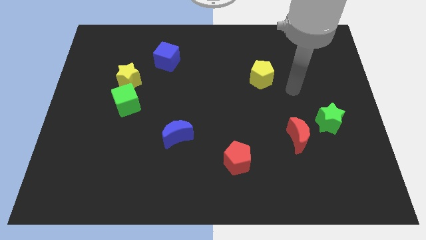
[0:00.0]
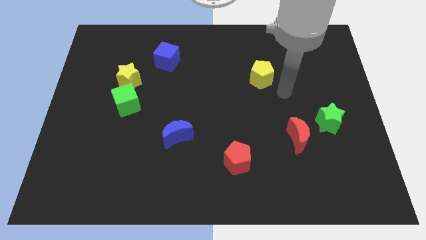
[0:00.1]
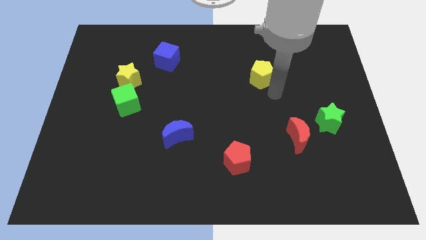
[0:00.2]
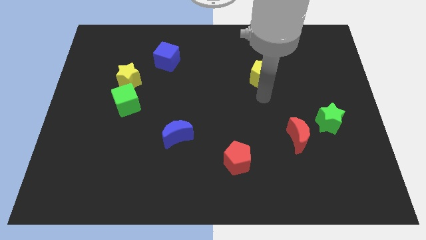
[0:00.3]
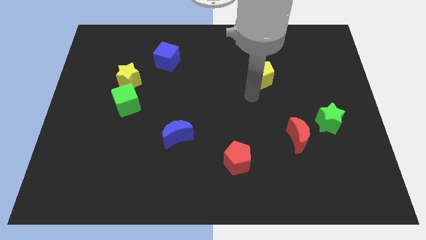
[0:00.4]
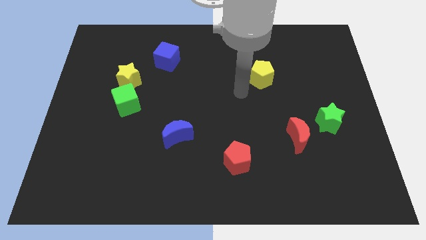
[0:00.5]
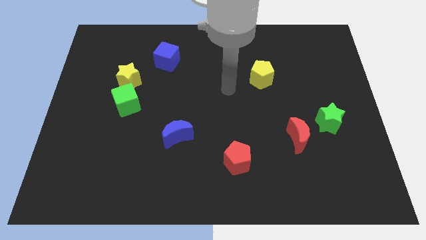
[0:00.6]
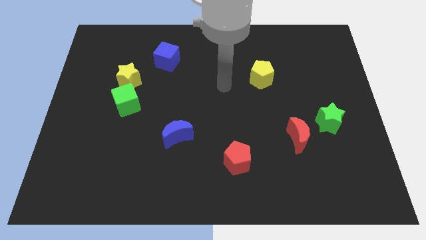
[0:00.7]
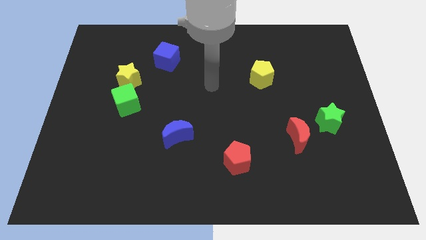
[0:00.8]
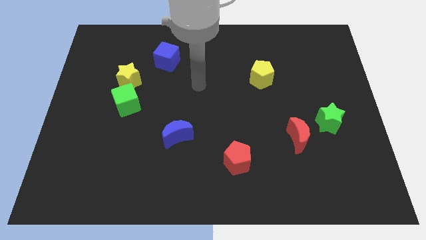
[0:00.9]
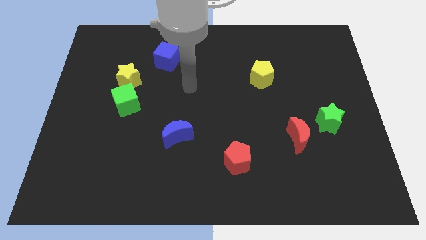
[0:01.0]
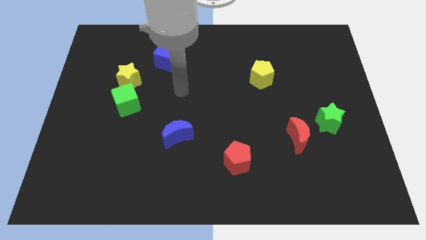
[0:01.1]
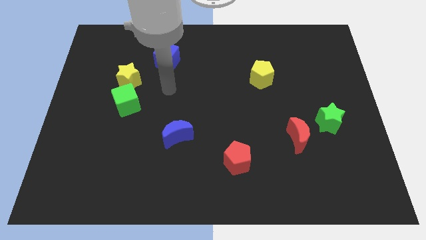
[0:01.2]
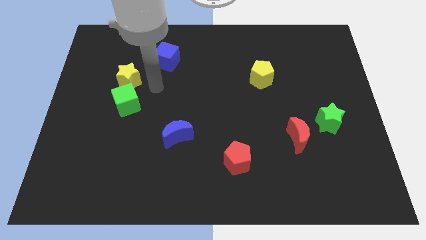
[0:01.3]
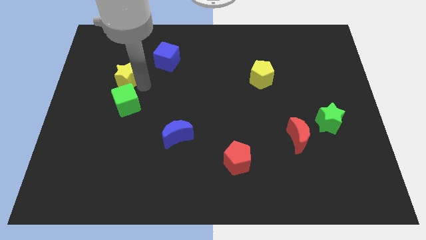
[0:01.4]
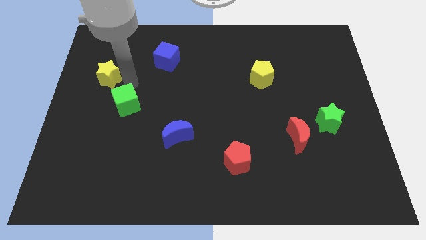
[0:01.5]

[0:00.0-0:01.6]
pull the green cube apart from the yellow star

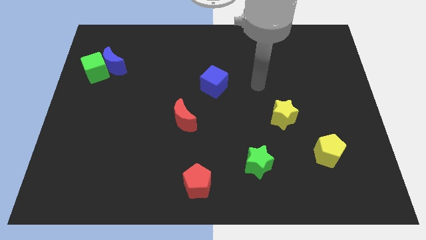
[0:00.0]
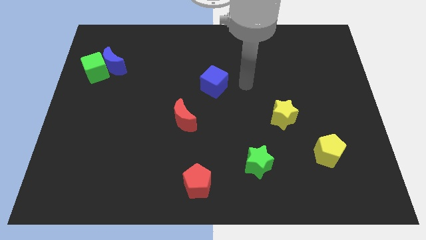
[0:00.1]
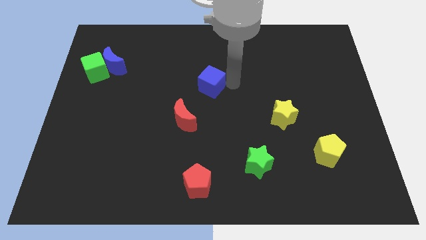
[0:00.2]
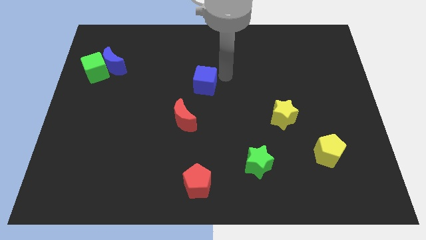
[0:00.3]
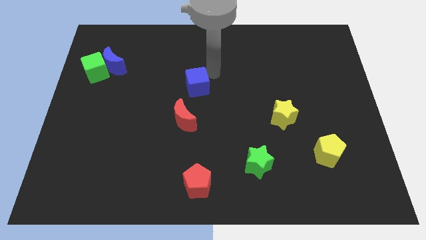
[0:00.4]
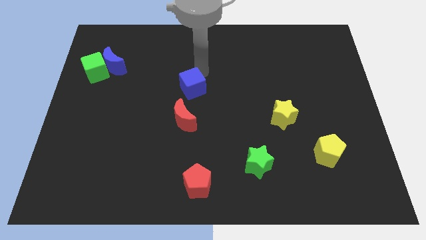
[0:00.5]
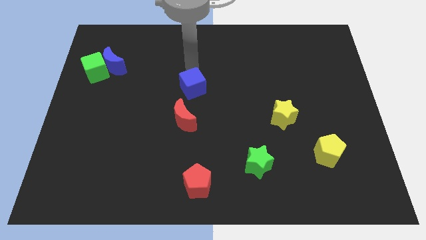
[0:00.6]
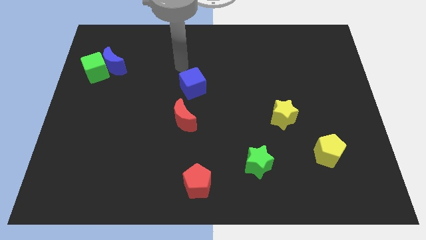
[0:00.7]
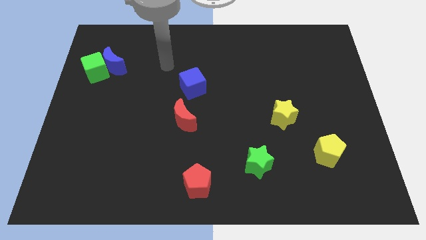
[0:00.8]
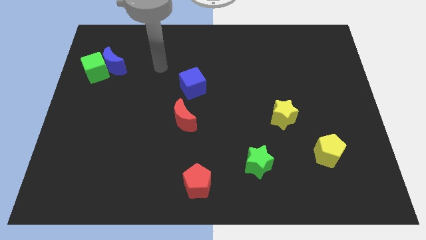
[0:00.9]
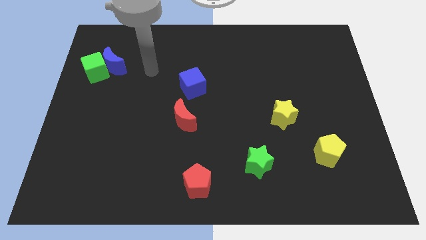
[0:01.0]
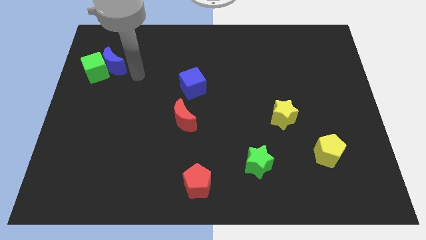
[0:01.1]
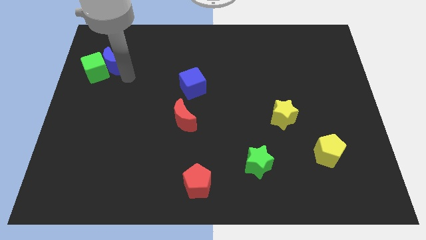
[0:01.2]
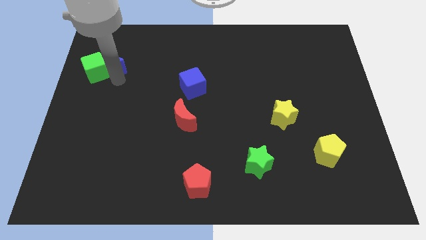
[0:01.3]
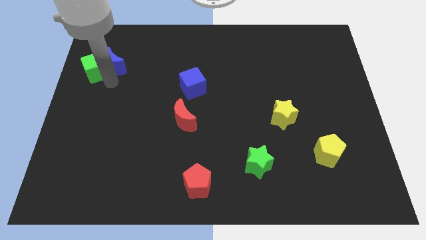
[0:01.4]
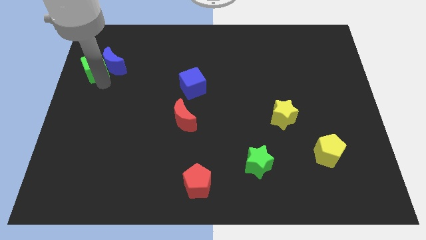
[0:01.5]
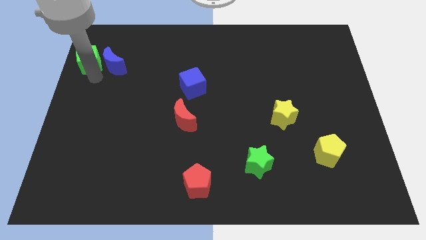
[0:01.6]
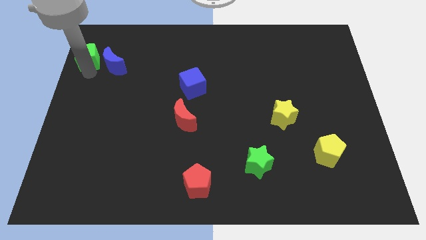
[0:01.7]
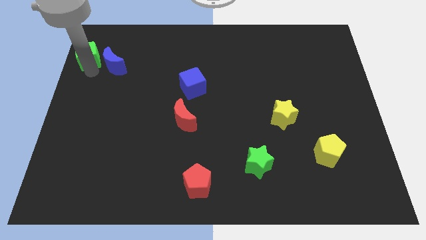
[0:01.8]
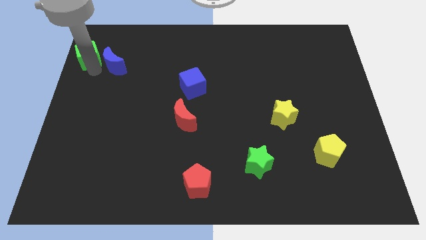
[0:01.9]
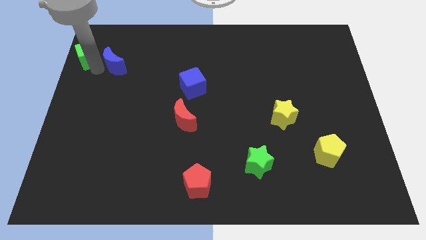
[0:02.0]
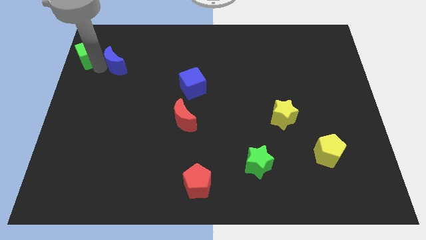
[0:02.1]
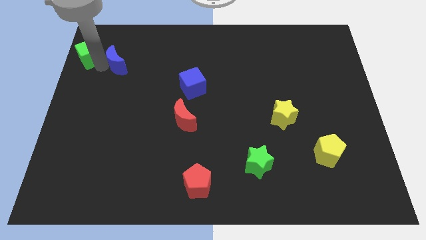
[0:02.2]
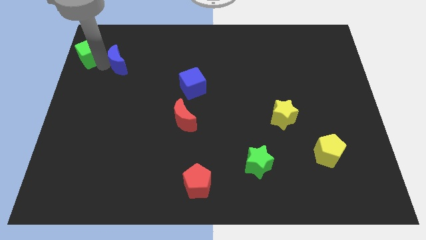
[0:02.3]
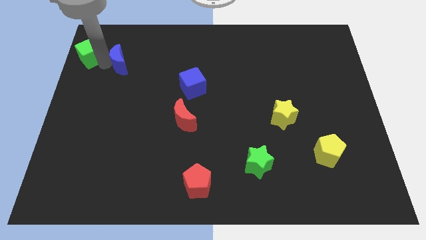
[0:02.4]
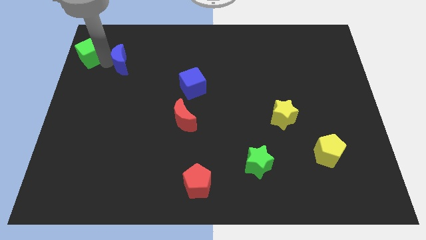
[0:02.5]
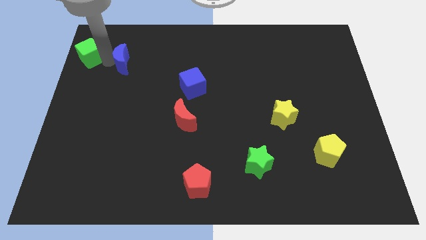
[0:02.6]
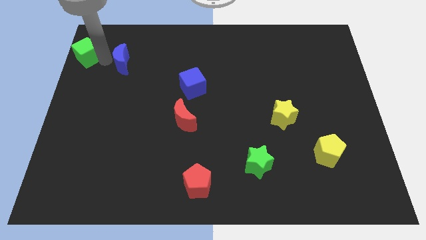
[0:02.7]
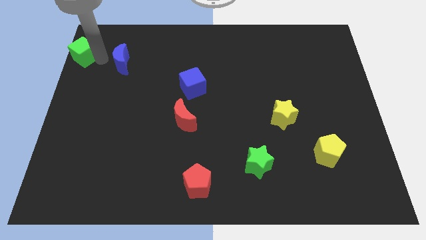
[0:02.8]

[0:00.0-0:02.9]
pull the blue moon apart from the green cube

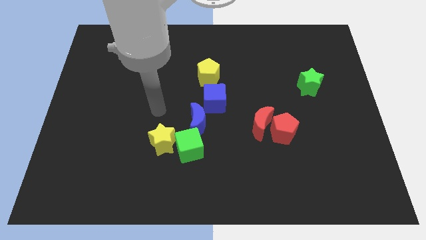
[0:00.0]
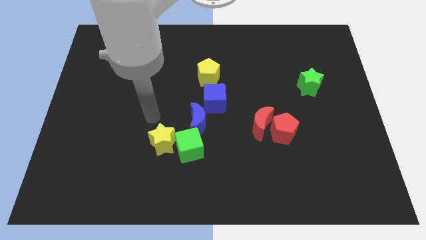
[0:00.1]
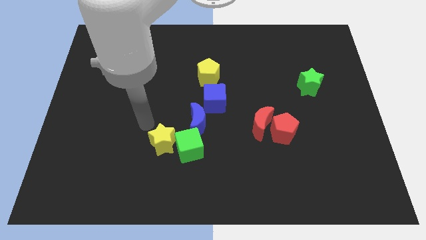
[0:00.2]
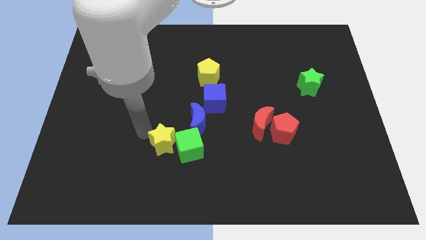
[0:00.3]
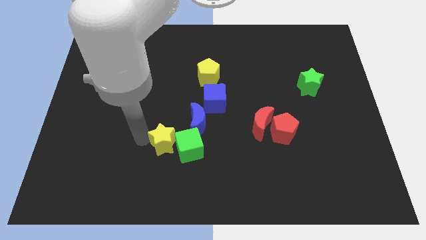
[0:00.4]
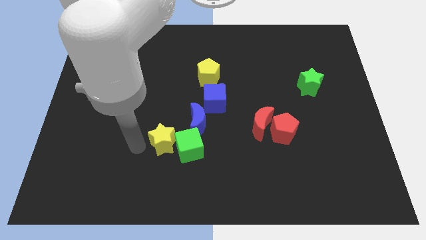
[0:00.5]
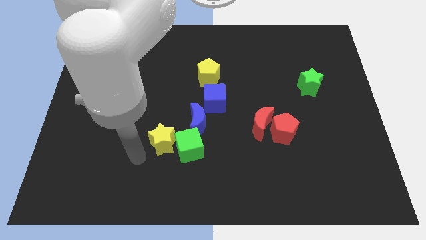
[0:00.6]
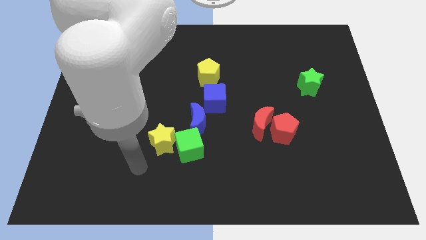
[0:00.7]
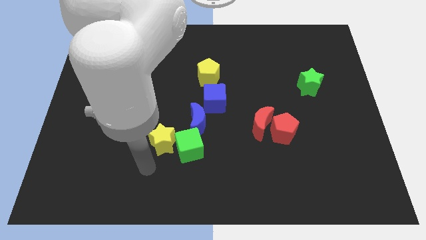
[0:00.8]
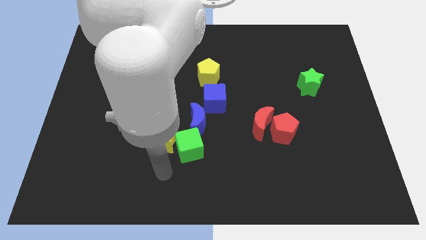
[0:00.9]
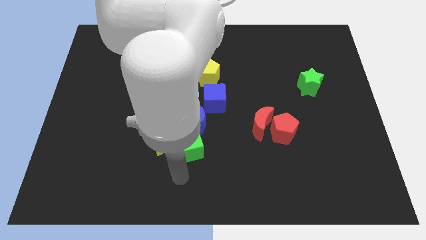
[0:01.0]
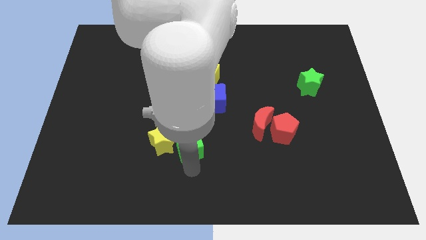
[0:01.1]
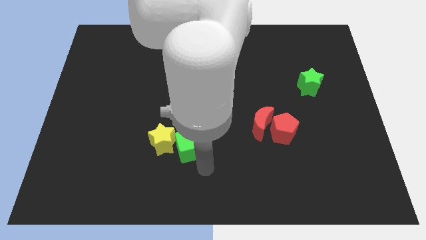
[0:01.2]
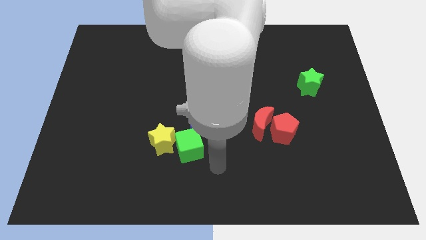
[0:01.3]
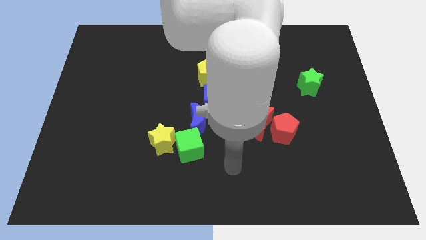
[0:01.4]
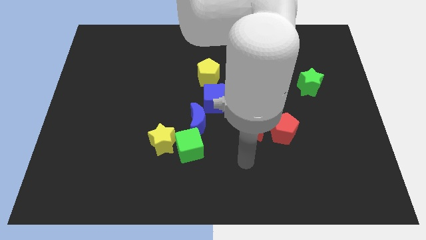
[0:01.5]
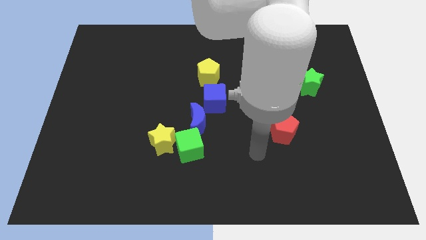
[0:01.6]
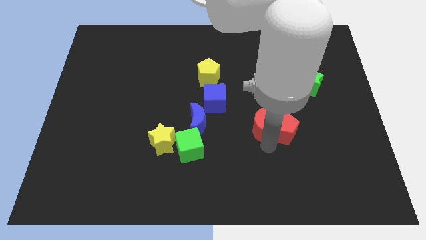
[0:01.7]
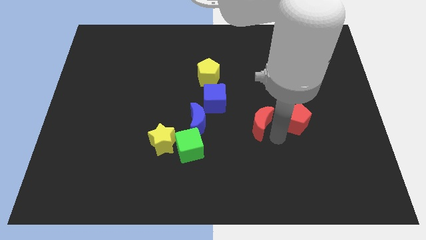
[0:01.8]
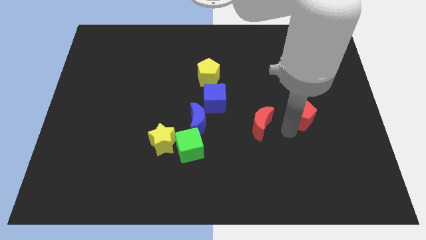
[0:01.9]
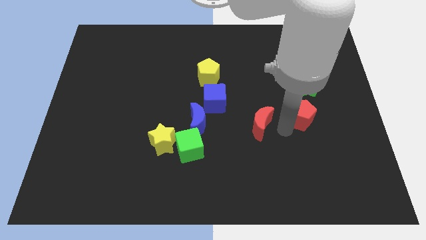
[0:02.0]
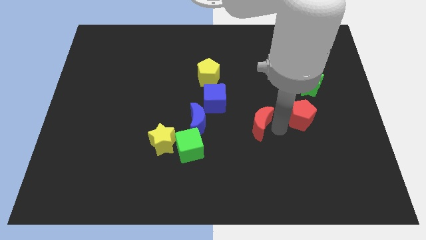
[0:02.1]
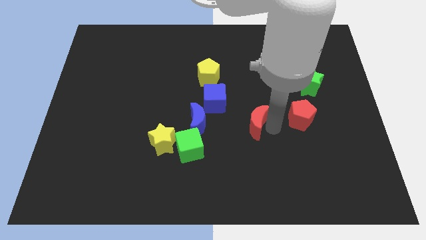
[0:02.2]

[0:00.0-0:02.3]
separate the red moon from the red pentagon

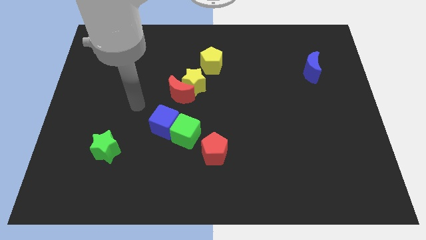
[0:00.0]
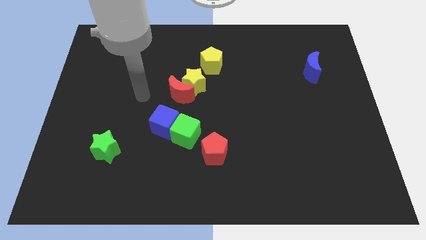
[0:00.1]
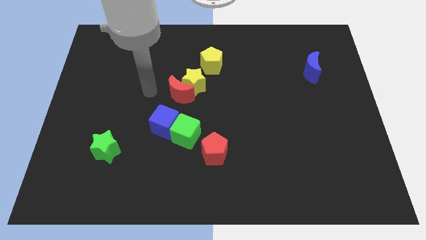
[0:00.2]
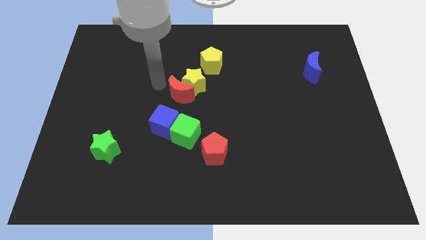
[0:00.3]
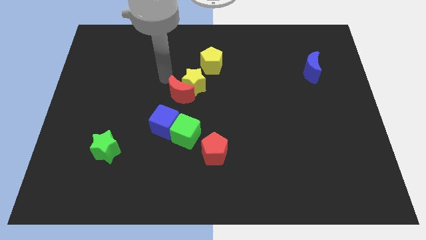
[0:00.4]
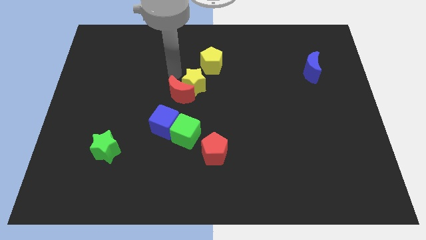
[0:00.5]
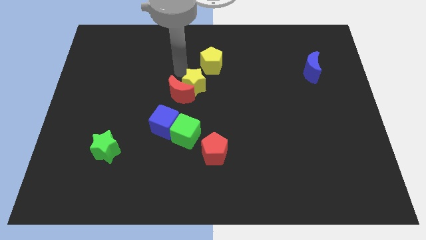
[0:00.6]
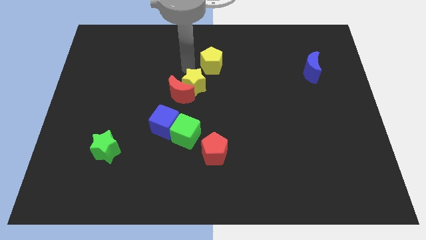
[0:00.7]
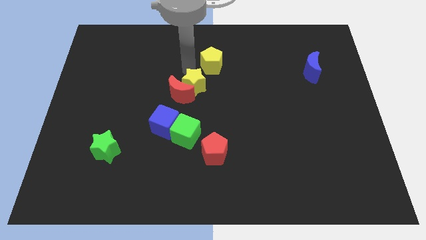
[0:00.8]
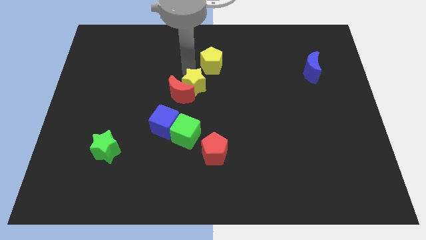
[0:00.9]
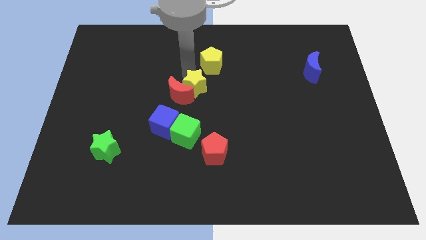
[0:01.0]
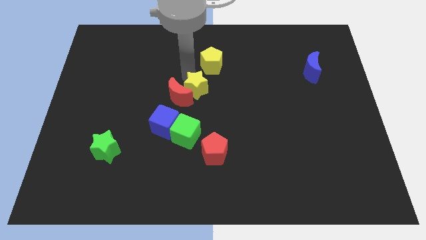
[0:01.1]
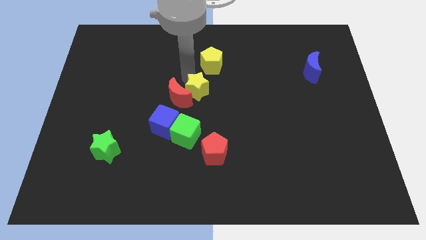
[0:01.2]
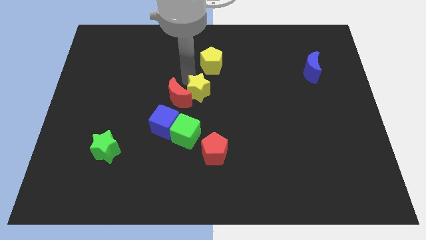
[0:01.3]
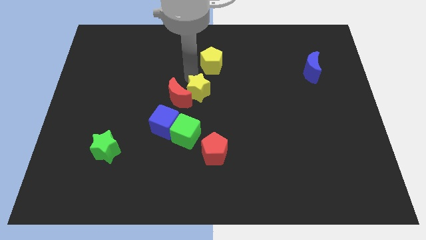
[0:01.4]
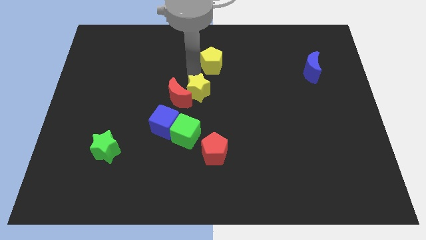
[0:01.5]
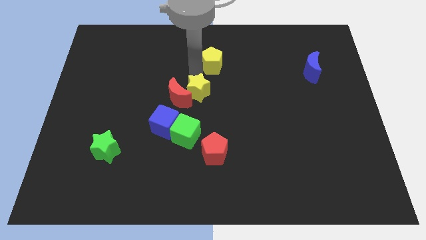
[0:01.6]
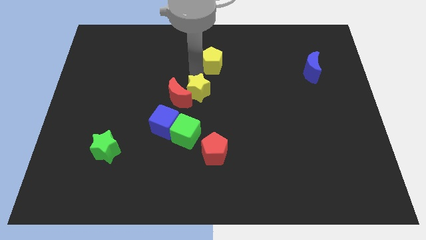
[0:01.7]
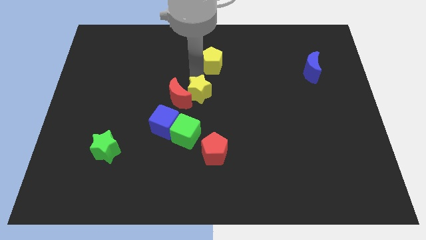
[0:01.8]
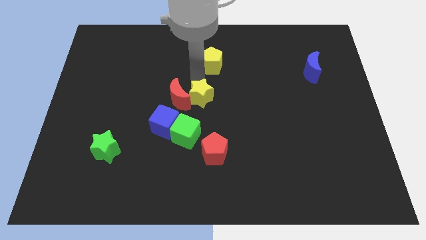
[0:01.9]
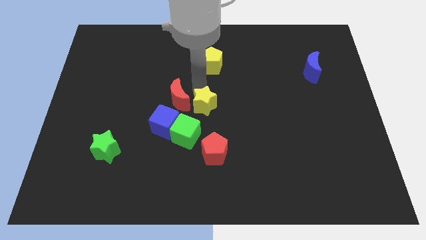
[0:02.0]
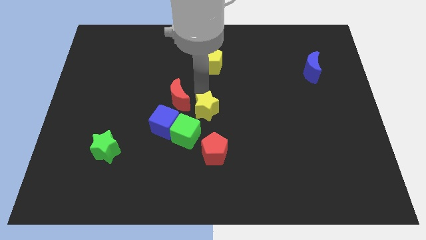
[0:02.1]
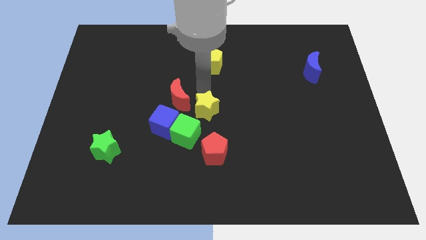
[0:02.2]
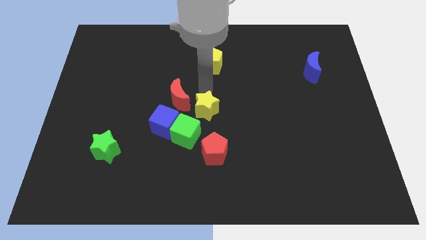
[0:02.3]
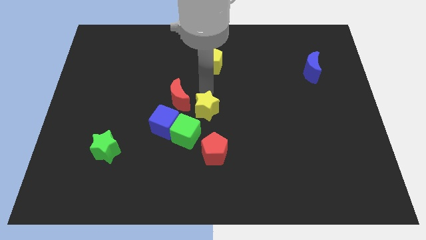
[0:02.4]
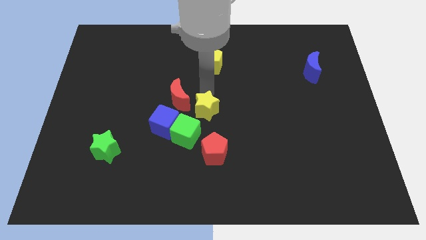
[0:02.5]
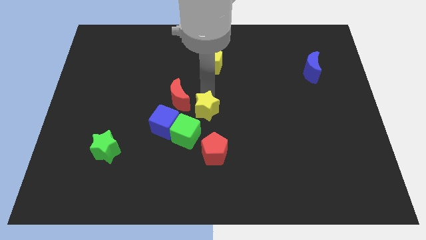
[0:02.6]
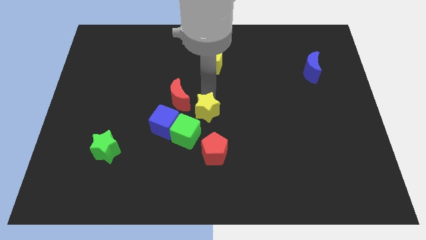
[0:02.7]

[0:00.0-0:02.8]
separate the yellow star from the red moon and yellow pentagon
